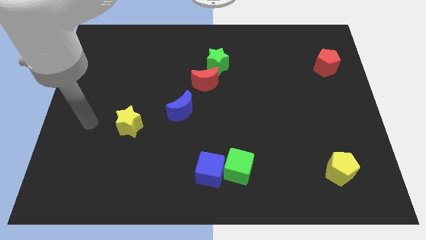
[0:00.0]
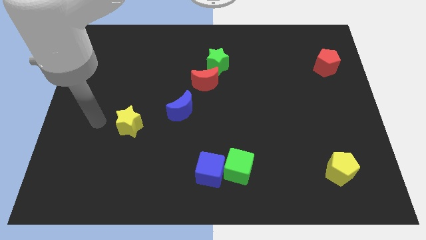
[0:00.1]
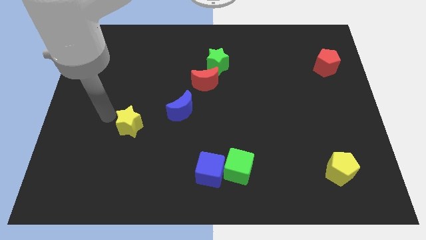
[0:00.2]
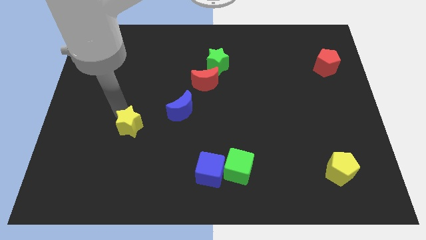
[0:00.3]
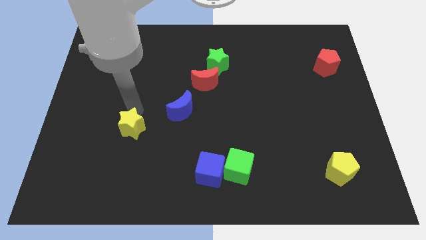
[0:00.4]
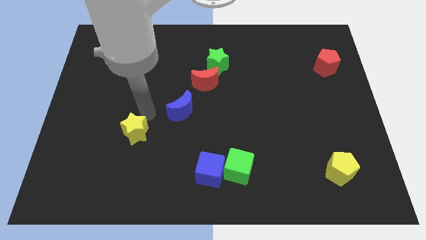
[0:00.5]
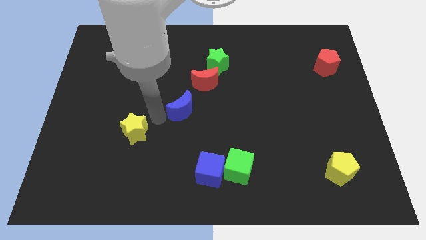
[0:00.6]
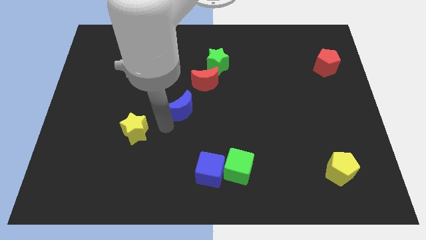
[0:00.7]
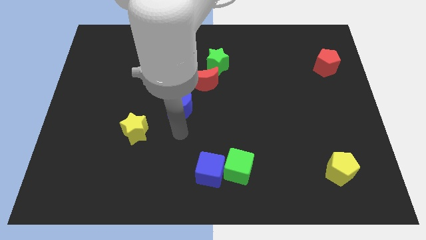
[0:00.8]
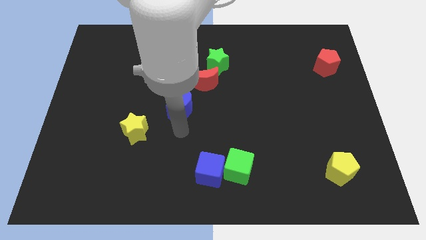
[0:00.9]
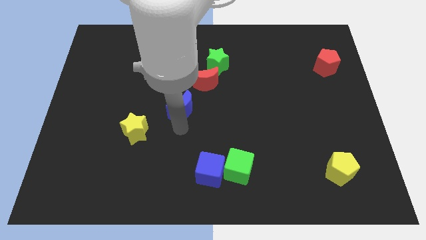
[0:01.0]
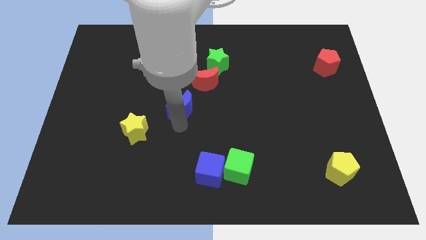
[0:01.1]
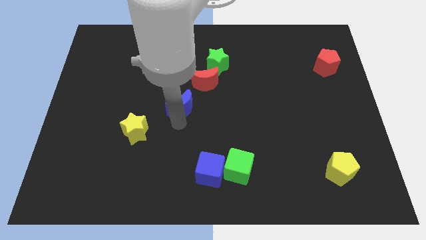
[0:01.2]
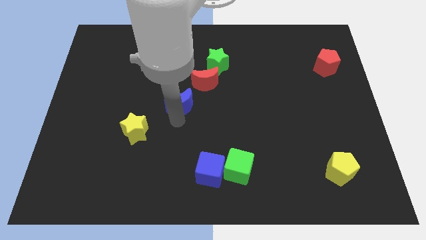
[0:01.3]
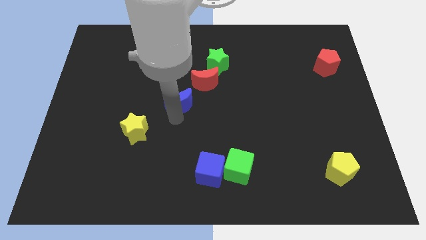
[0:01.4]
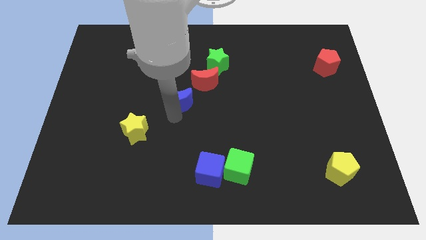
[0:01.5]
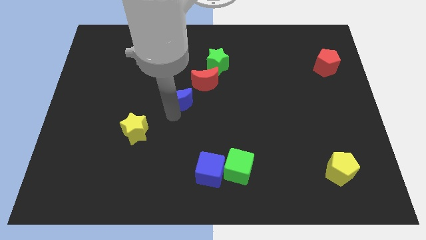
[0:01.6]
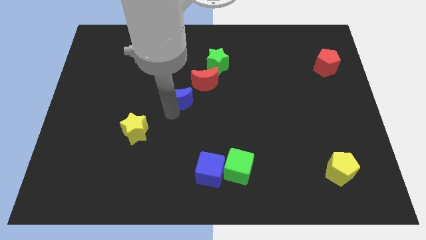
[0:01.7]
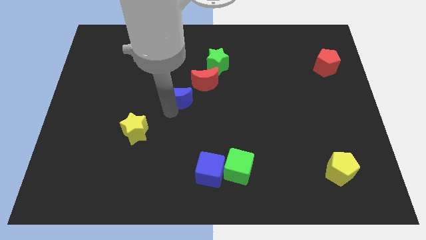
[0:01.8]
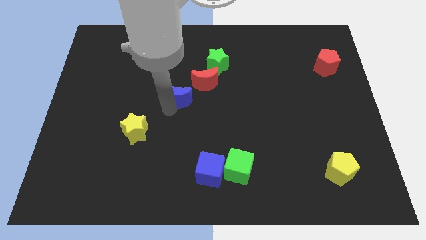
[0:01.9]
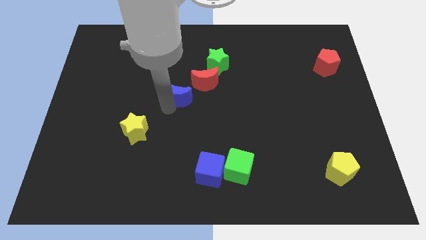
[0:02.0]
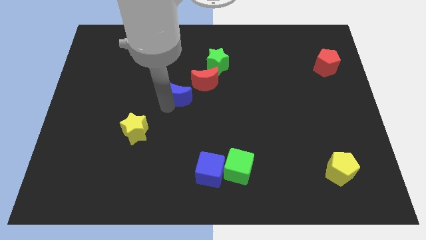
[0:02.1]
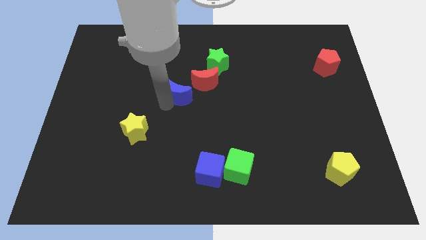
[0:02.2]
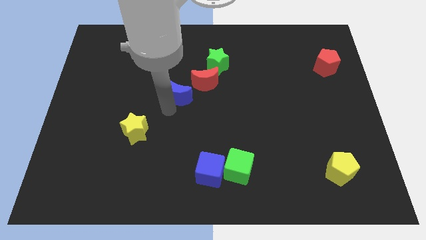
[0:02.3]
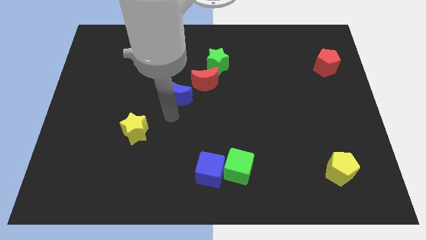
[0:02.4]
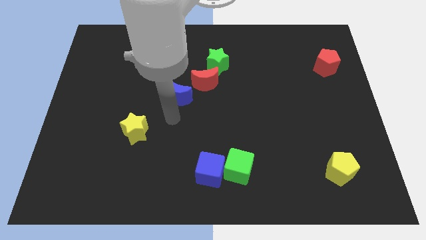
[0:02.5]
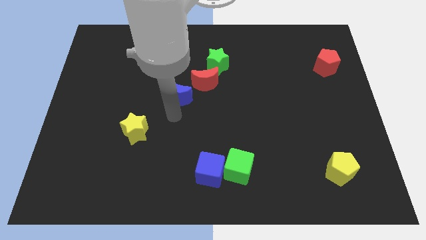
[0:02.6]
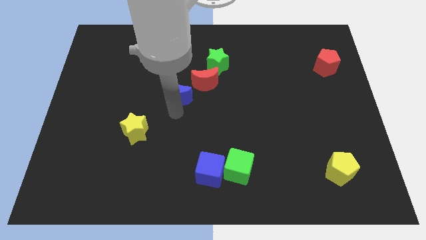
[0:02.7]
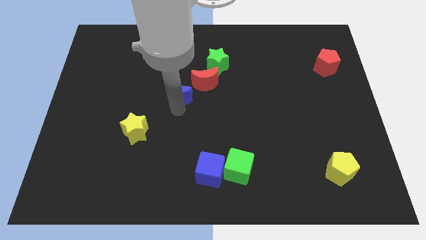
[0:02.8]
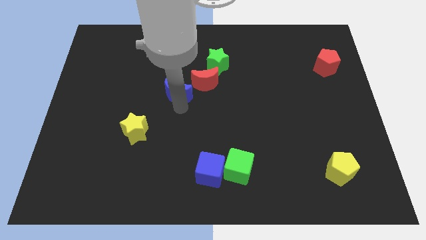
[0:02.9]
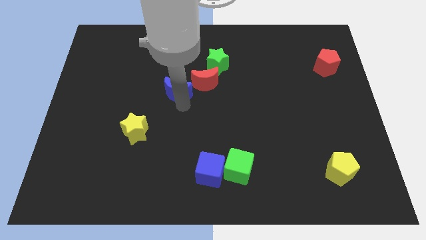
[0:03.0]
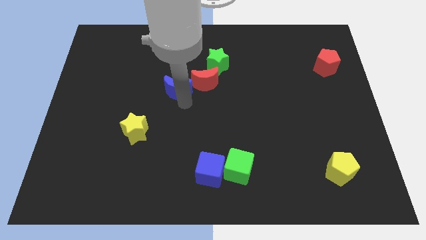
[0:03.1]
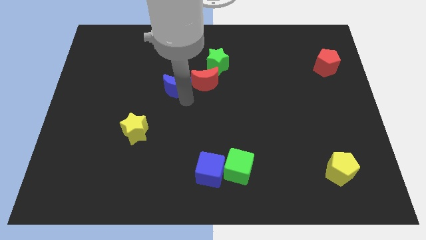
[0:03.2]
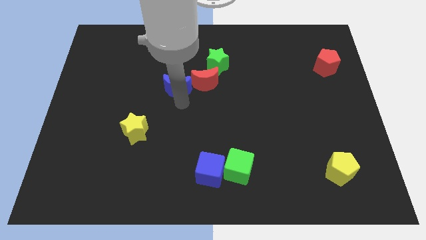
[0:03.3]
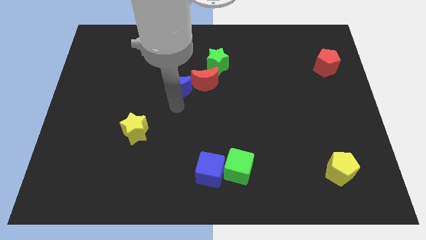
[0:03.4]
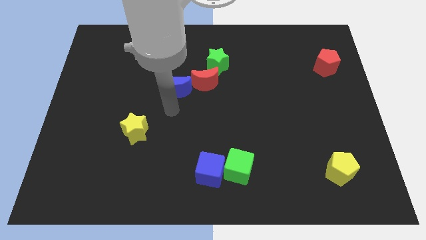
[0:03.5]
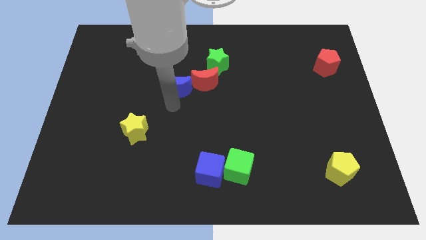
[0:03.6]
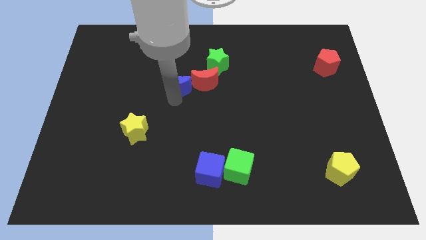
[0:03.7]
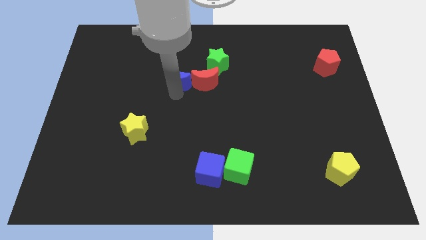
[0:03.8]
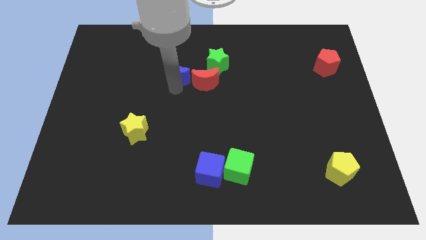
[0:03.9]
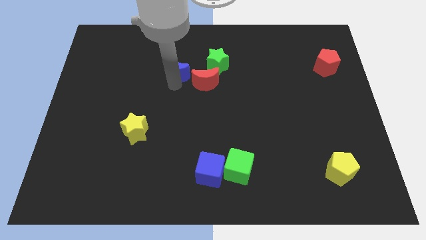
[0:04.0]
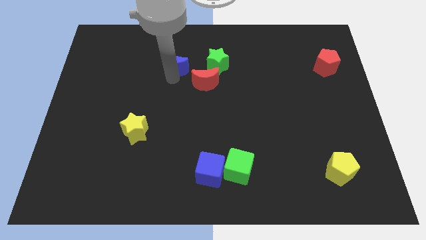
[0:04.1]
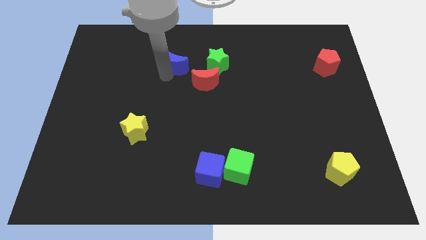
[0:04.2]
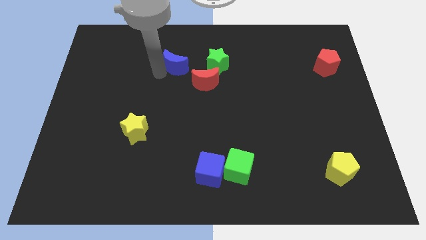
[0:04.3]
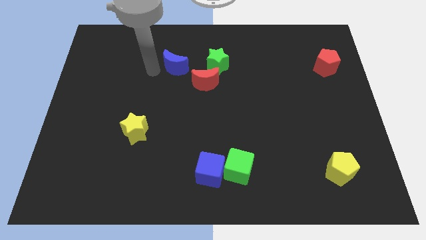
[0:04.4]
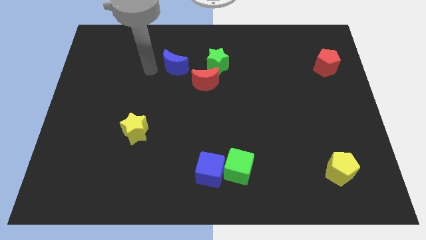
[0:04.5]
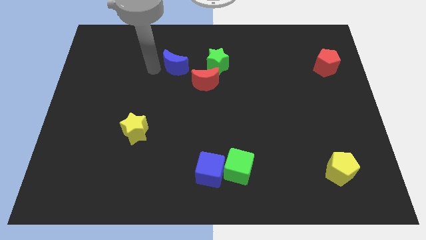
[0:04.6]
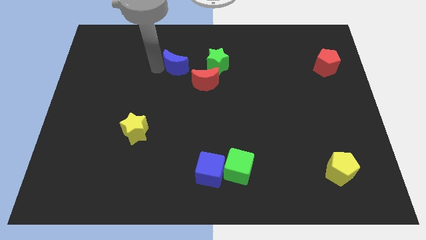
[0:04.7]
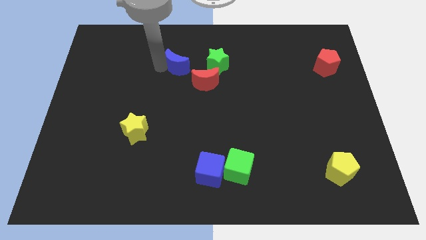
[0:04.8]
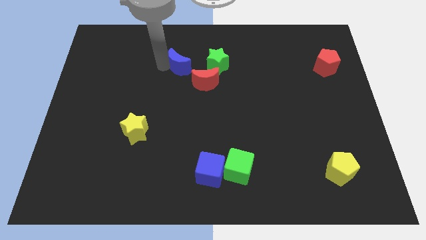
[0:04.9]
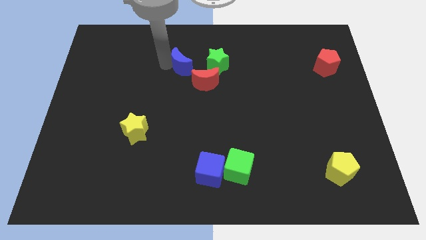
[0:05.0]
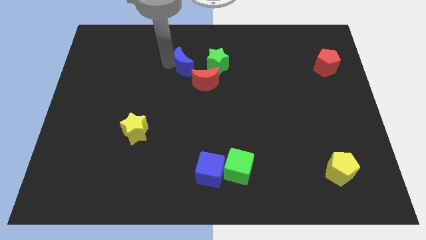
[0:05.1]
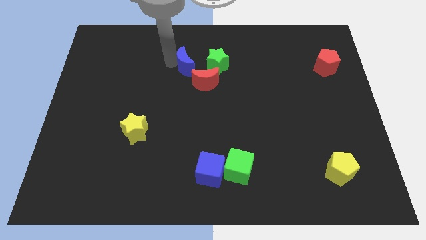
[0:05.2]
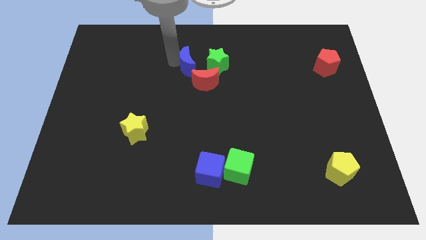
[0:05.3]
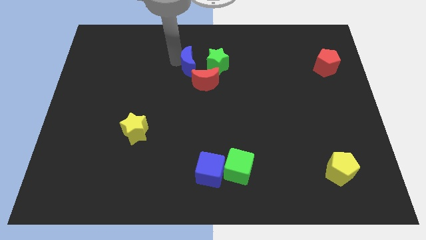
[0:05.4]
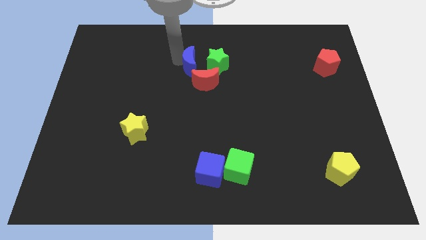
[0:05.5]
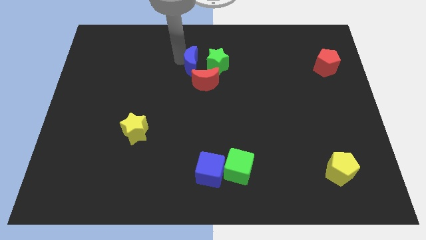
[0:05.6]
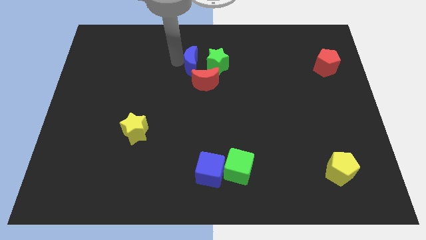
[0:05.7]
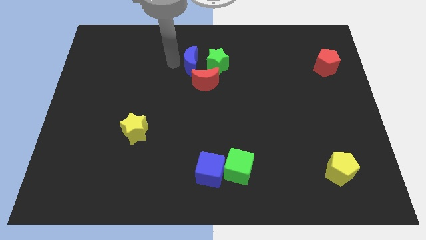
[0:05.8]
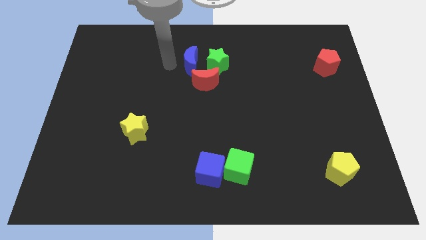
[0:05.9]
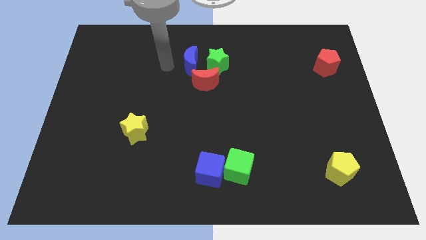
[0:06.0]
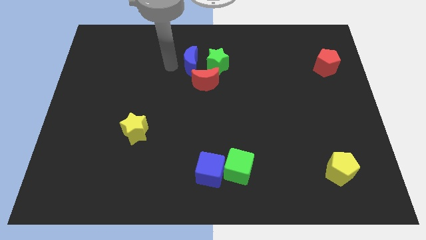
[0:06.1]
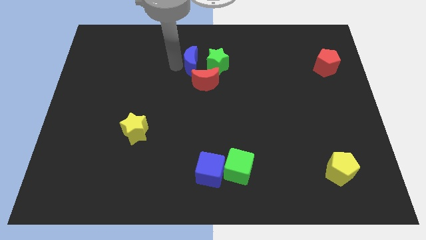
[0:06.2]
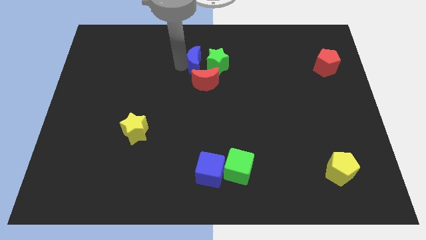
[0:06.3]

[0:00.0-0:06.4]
move the blue moon to the green star
